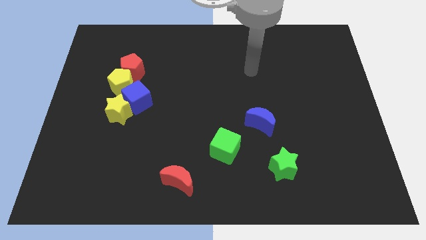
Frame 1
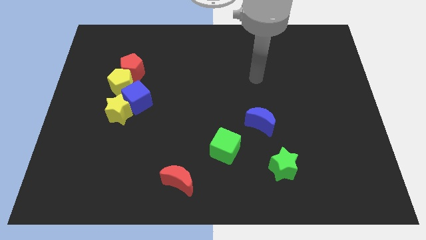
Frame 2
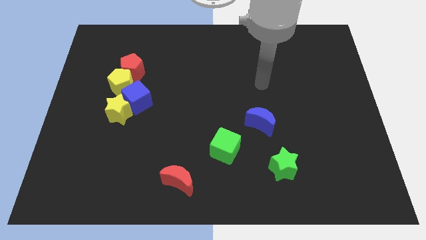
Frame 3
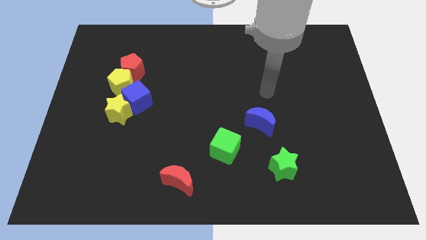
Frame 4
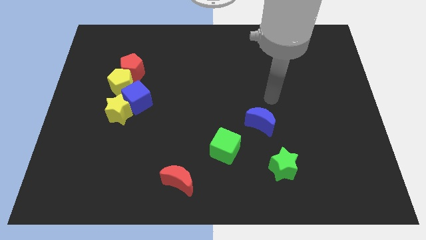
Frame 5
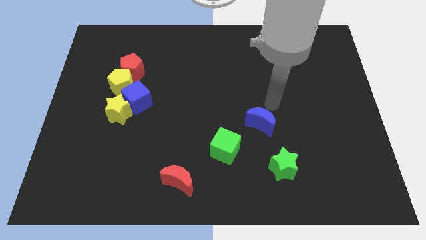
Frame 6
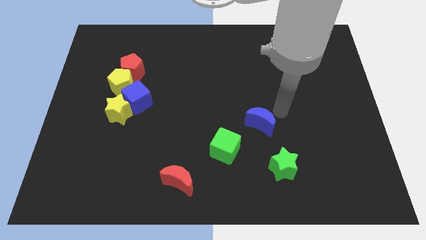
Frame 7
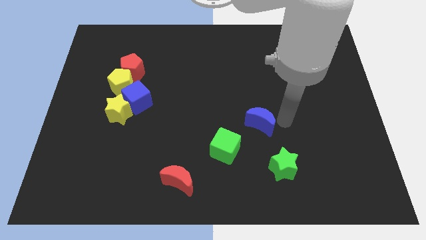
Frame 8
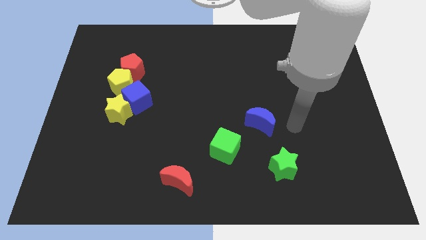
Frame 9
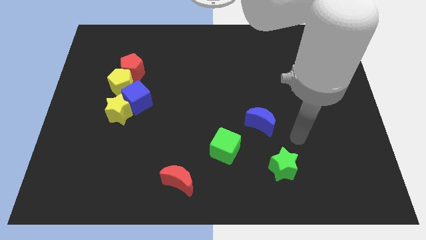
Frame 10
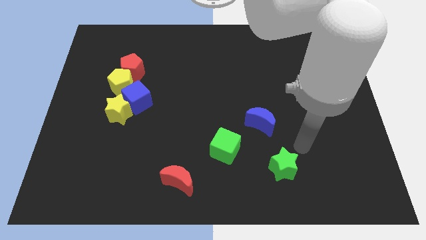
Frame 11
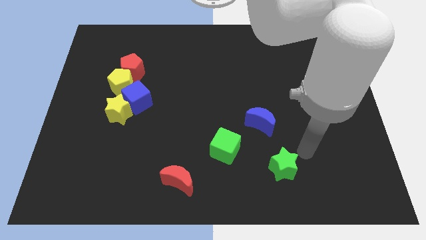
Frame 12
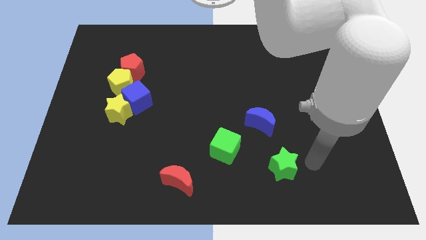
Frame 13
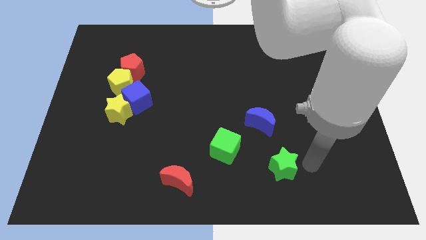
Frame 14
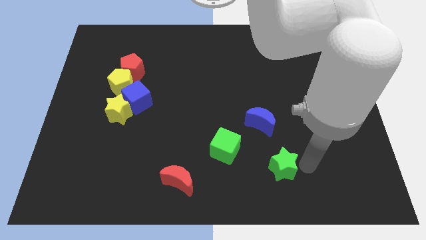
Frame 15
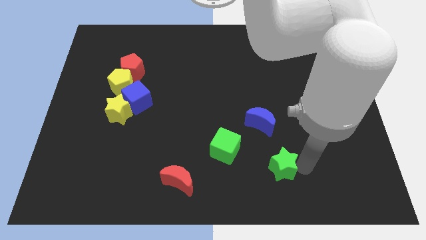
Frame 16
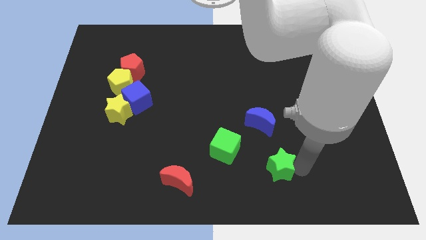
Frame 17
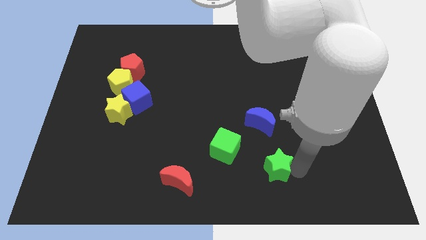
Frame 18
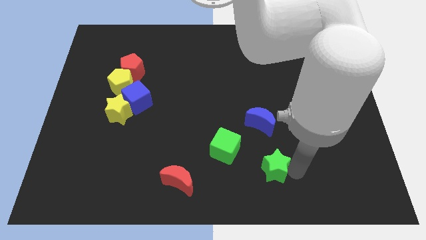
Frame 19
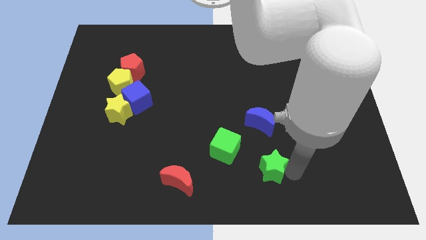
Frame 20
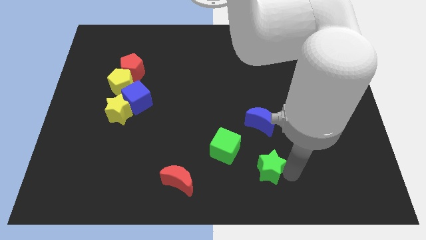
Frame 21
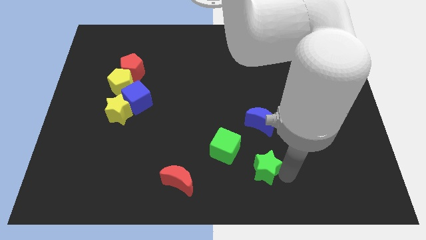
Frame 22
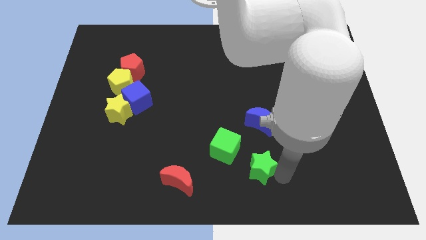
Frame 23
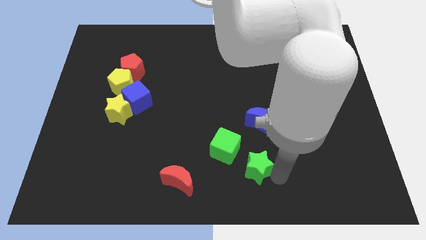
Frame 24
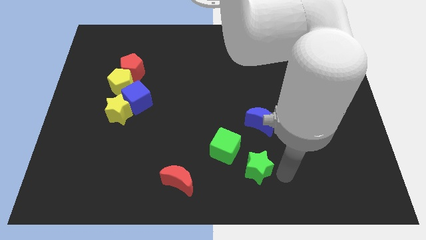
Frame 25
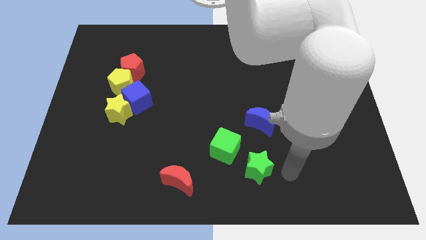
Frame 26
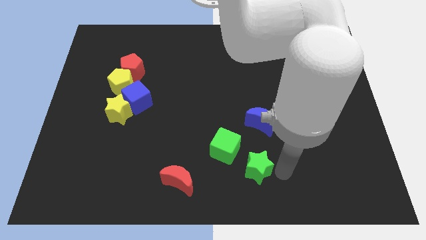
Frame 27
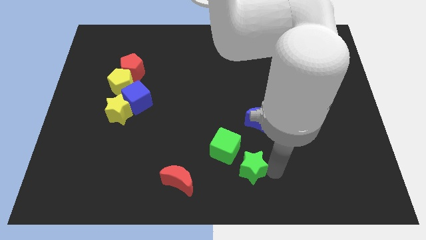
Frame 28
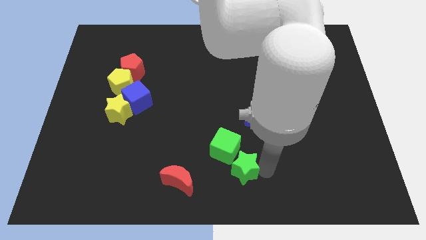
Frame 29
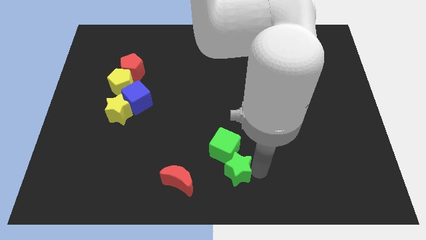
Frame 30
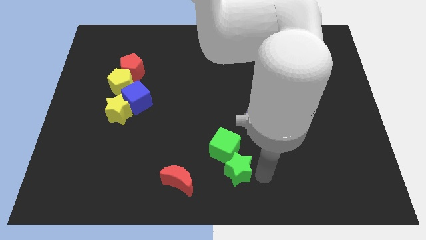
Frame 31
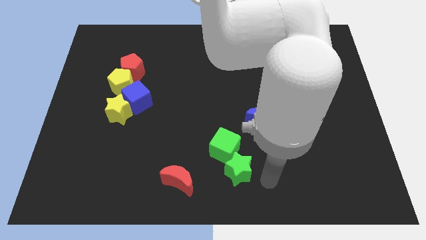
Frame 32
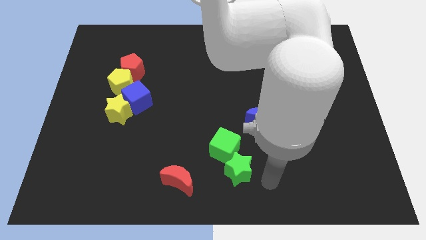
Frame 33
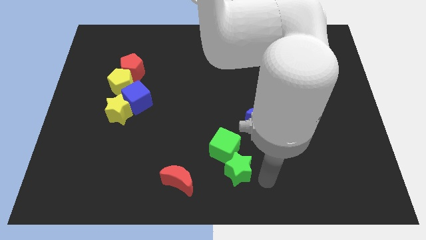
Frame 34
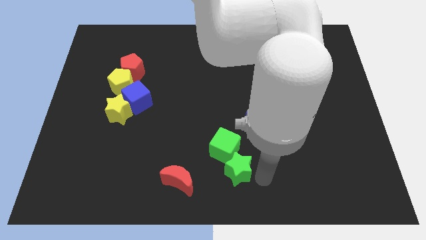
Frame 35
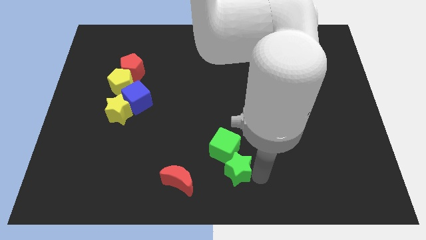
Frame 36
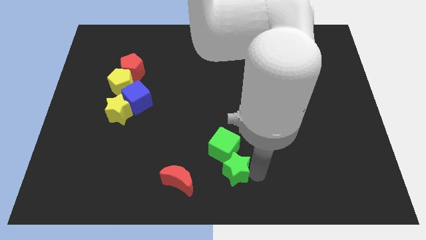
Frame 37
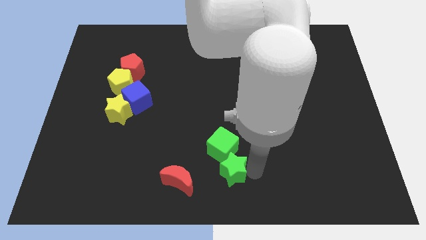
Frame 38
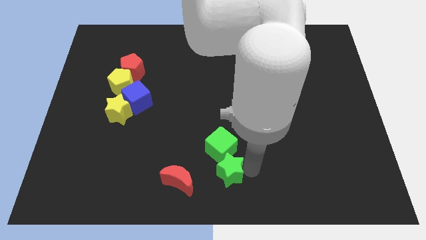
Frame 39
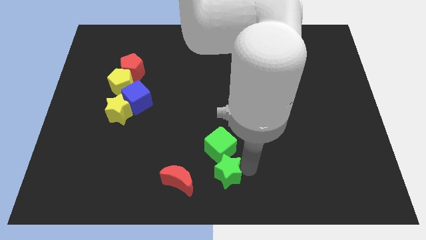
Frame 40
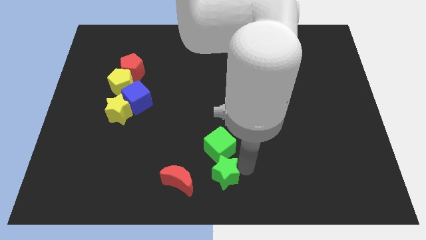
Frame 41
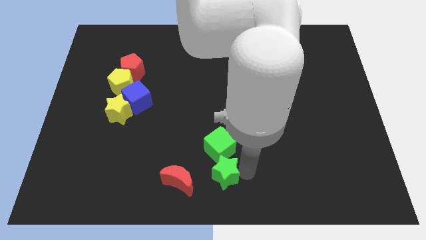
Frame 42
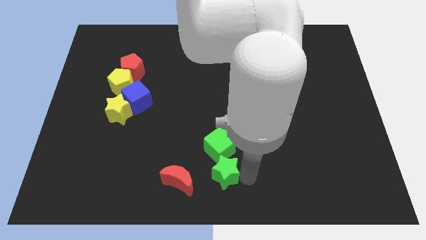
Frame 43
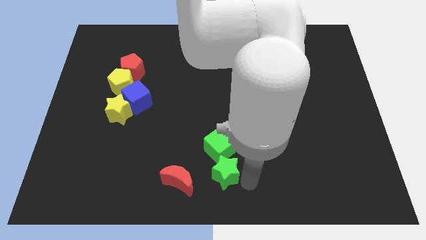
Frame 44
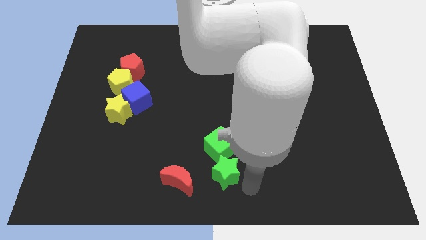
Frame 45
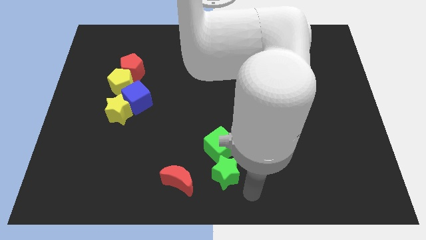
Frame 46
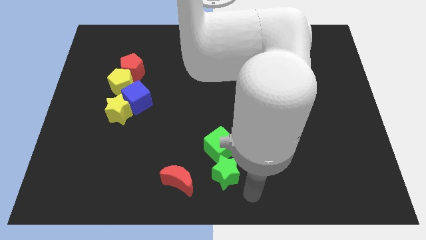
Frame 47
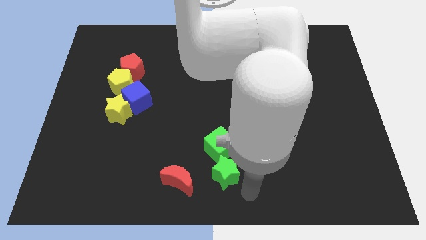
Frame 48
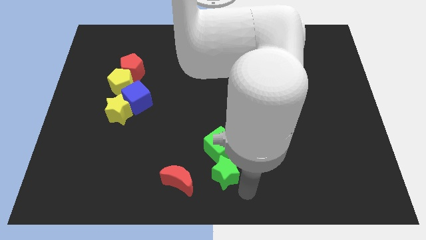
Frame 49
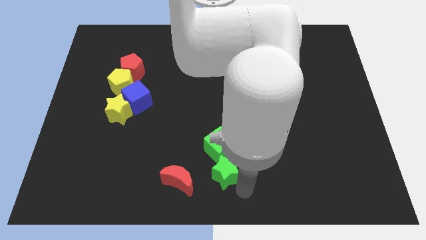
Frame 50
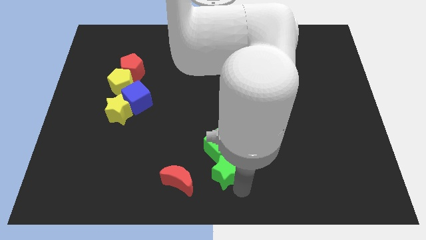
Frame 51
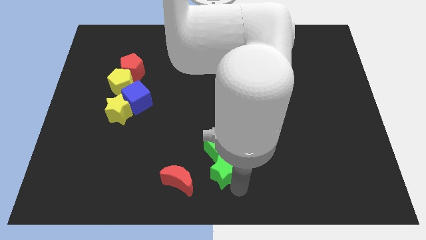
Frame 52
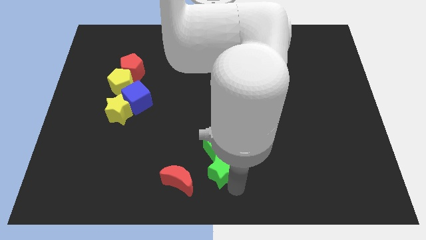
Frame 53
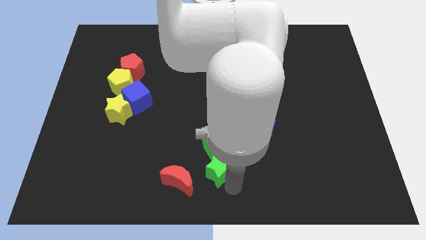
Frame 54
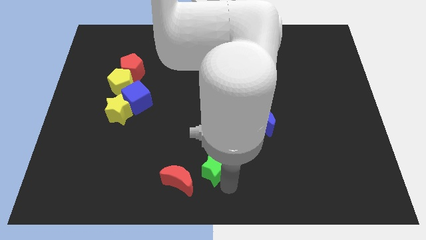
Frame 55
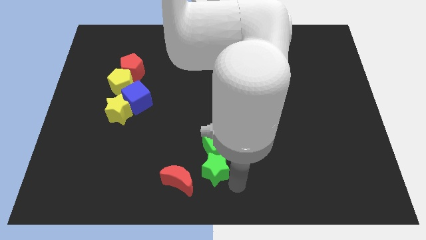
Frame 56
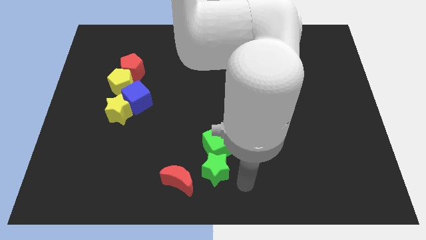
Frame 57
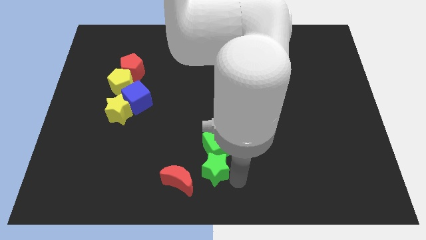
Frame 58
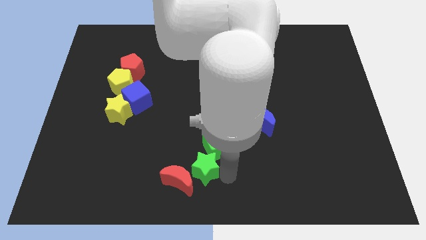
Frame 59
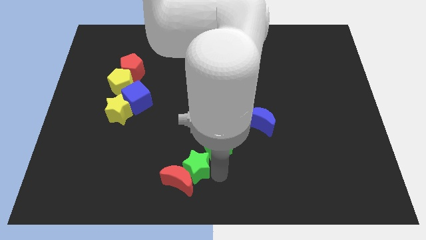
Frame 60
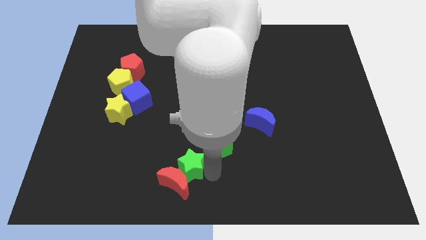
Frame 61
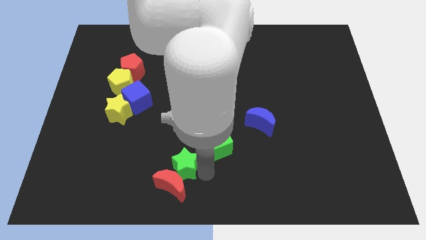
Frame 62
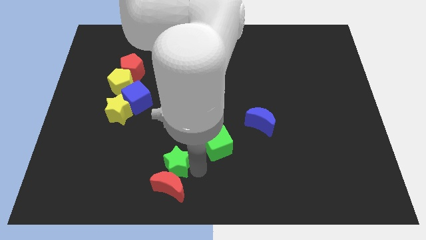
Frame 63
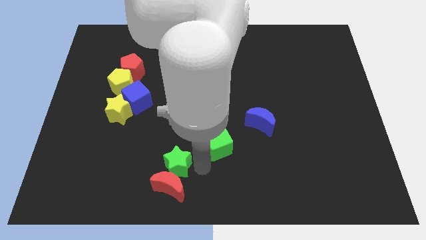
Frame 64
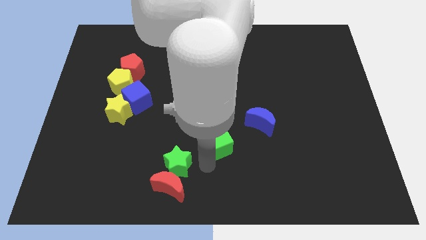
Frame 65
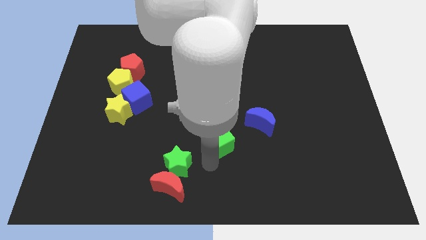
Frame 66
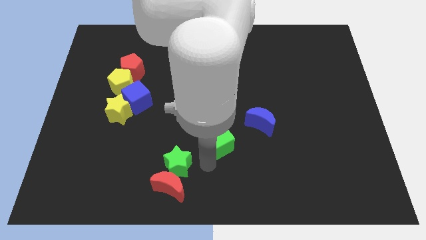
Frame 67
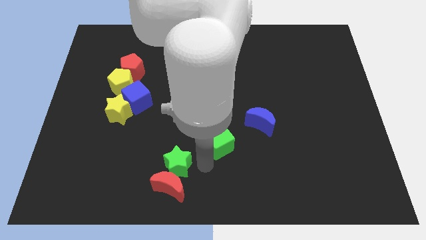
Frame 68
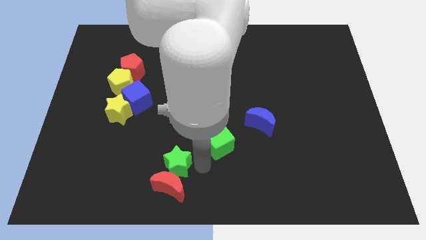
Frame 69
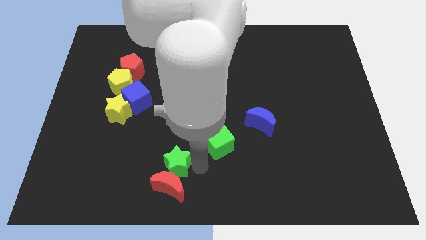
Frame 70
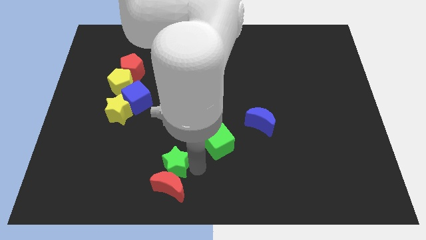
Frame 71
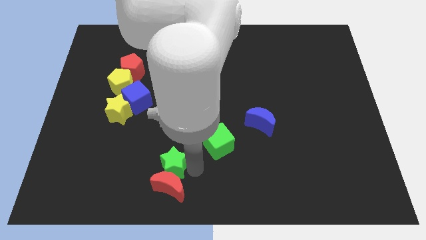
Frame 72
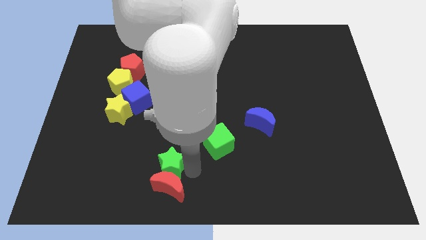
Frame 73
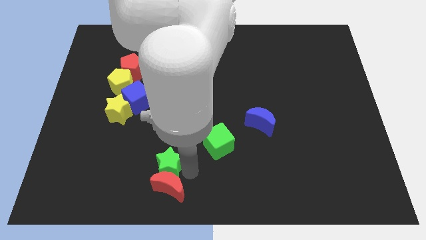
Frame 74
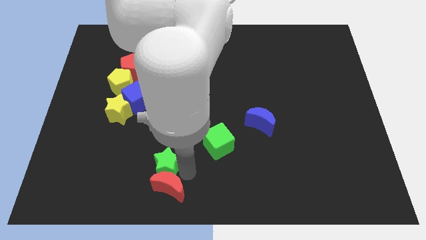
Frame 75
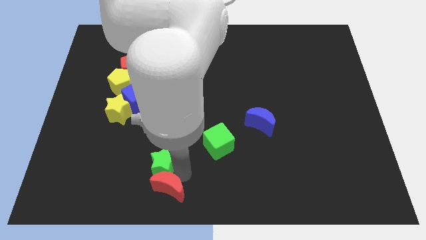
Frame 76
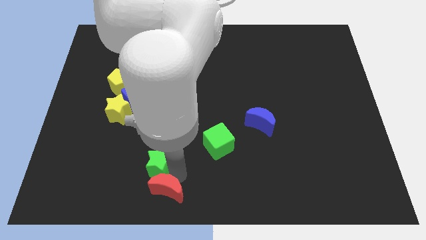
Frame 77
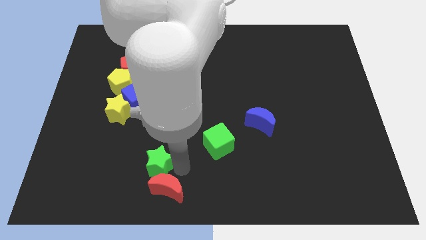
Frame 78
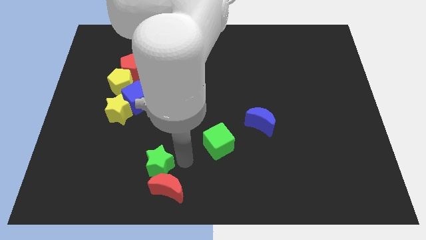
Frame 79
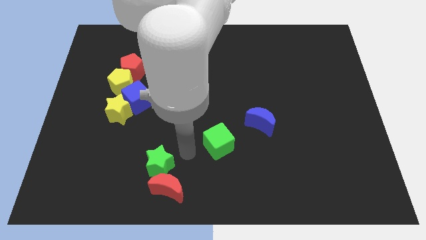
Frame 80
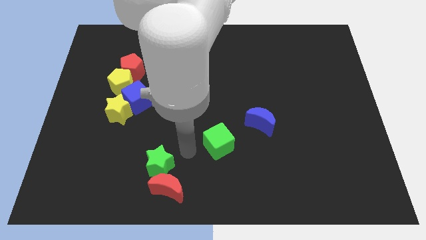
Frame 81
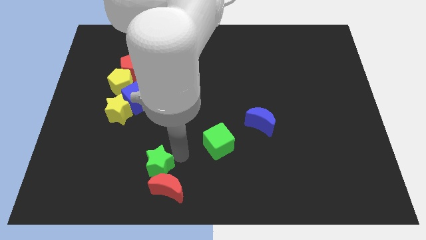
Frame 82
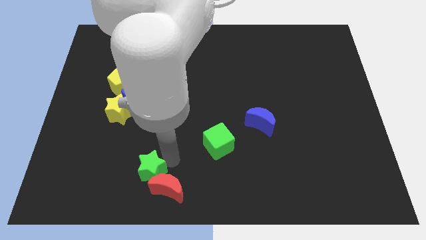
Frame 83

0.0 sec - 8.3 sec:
put the green star just left of the red moon
